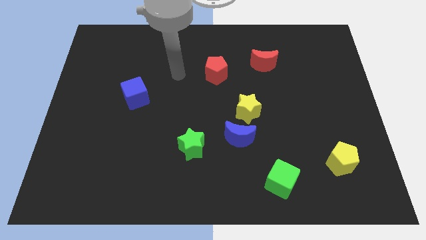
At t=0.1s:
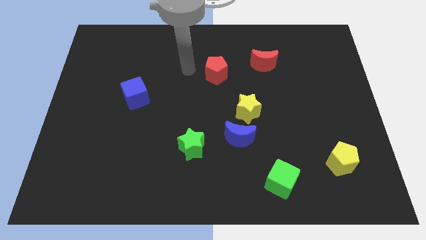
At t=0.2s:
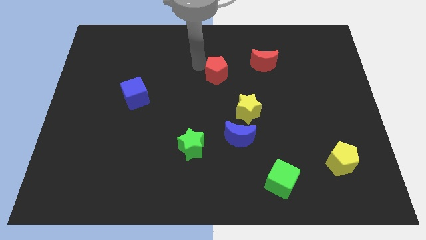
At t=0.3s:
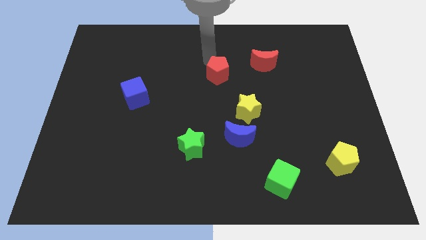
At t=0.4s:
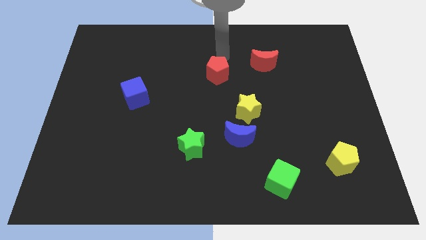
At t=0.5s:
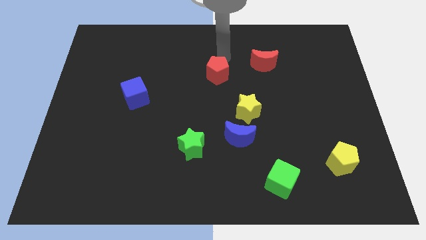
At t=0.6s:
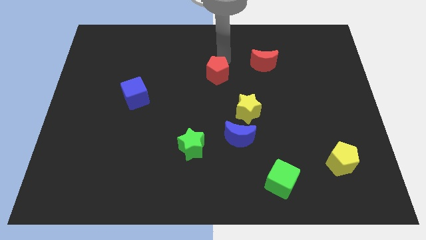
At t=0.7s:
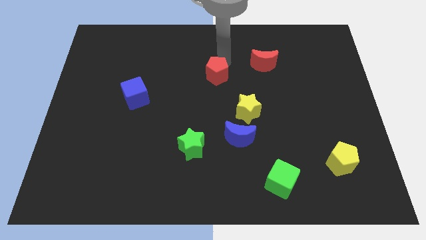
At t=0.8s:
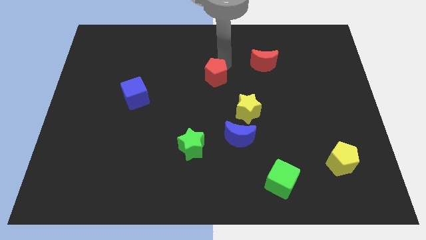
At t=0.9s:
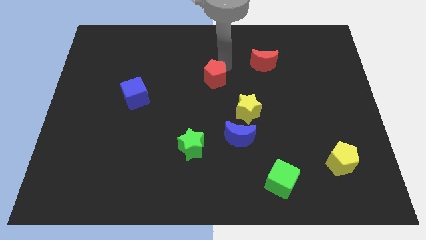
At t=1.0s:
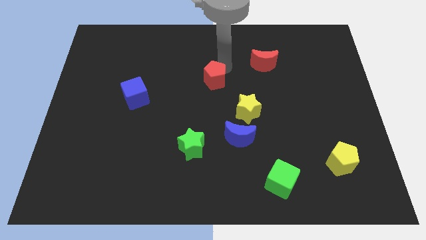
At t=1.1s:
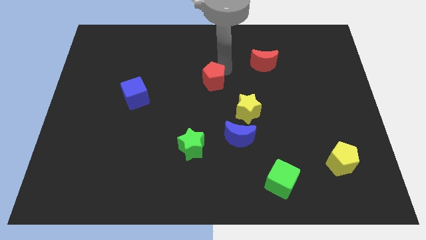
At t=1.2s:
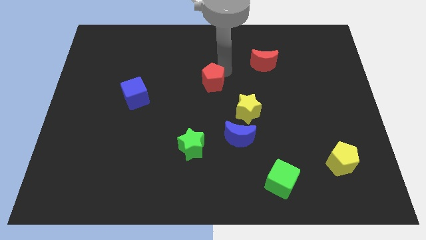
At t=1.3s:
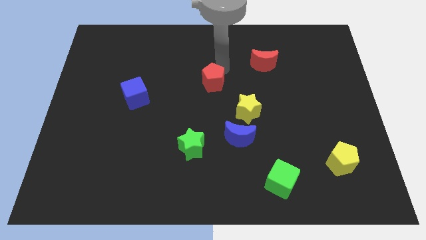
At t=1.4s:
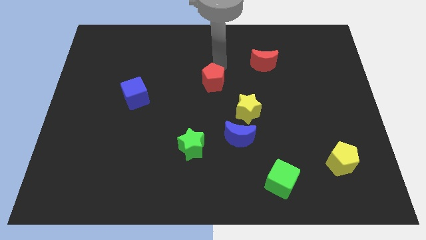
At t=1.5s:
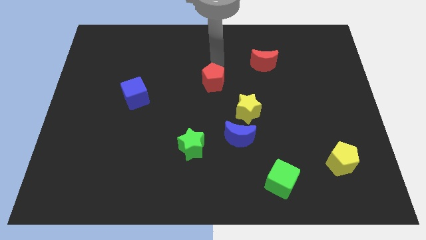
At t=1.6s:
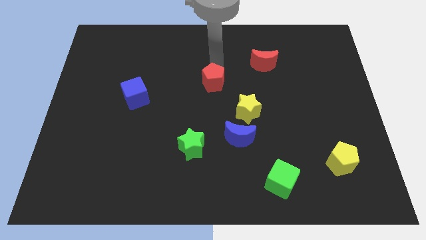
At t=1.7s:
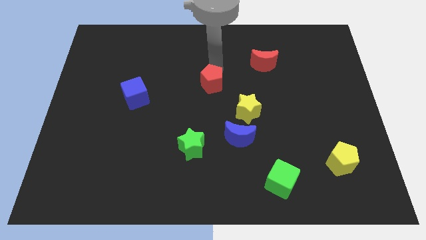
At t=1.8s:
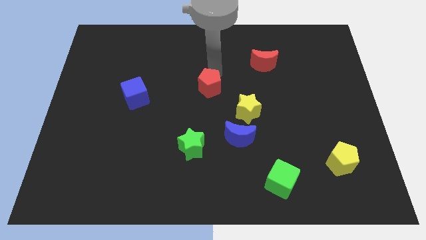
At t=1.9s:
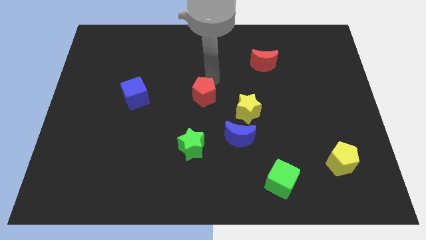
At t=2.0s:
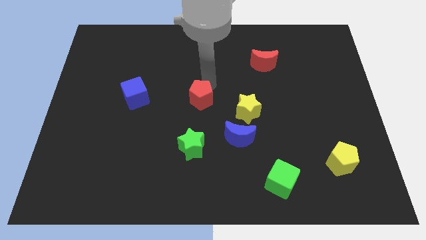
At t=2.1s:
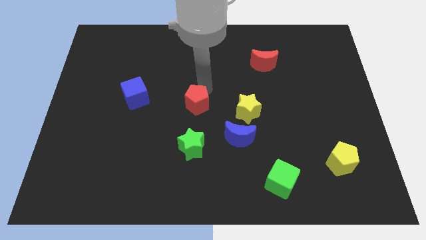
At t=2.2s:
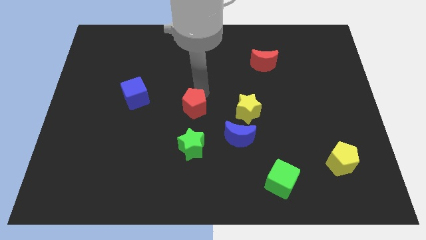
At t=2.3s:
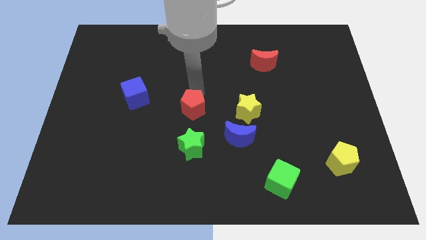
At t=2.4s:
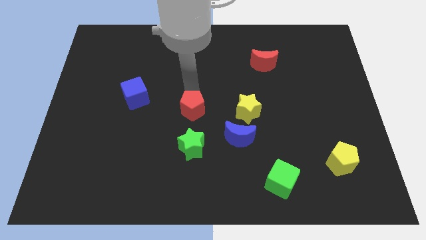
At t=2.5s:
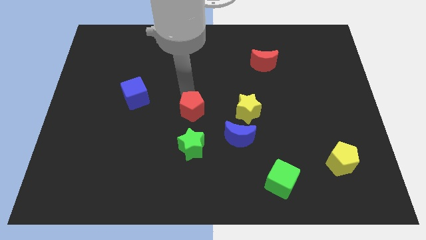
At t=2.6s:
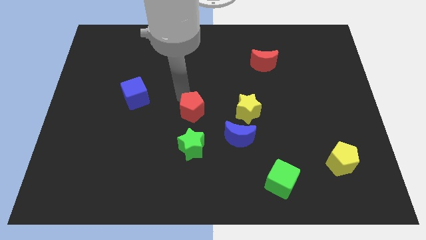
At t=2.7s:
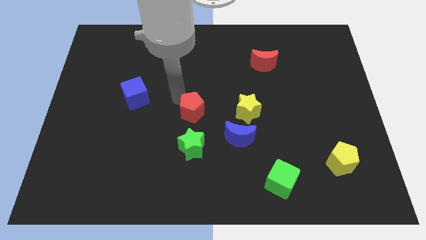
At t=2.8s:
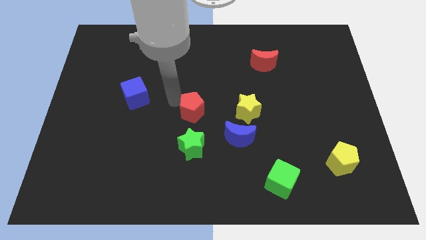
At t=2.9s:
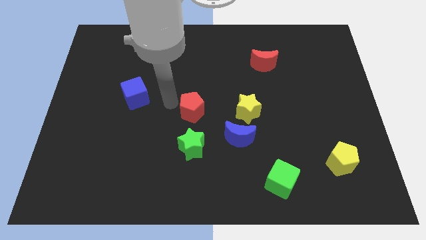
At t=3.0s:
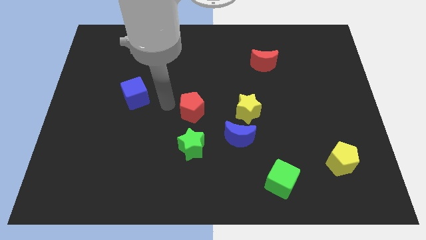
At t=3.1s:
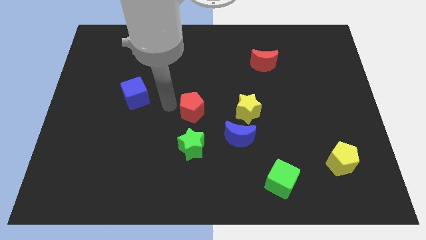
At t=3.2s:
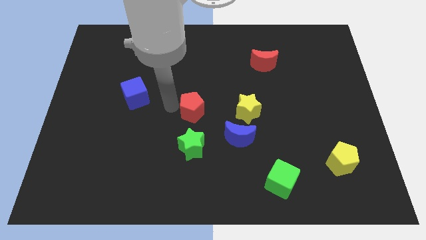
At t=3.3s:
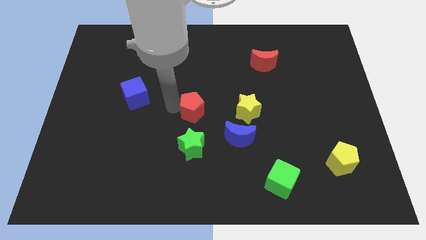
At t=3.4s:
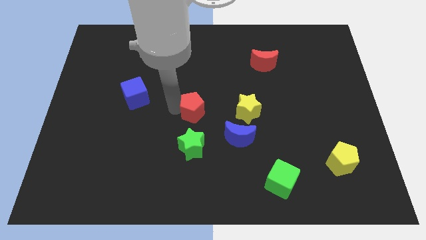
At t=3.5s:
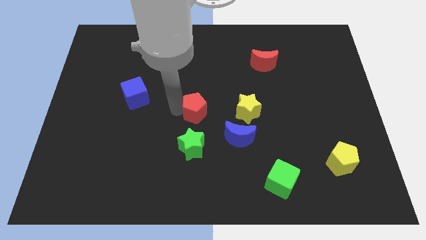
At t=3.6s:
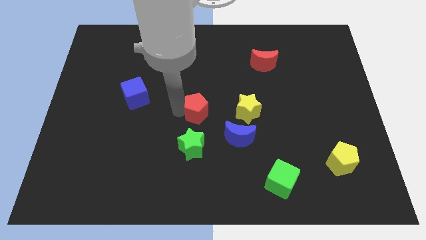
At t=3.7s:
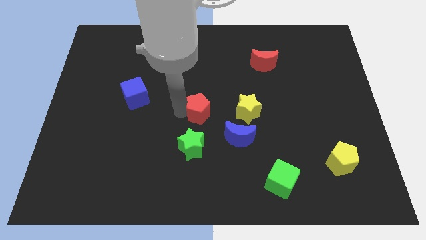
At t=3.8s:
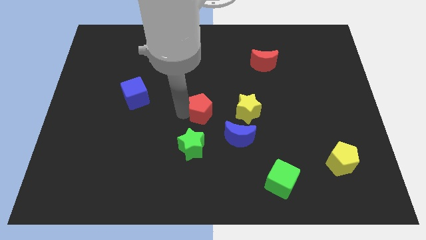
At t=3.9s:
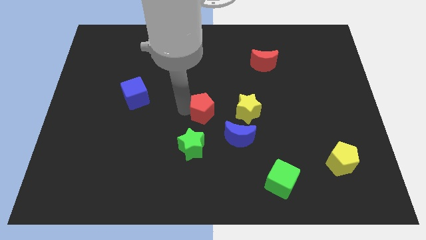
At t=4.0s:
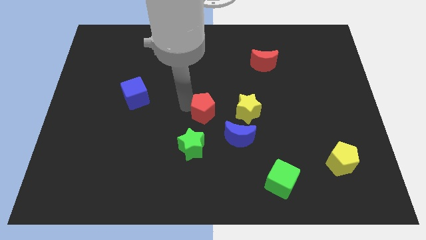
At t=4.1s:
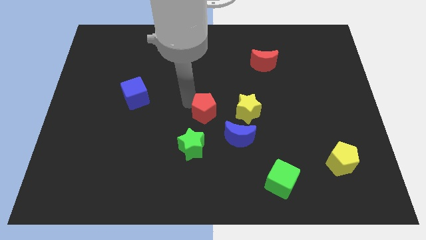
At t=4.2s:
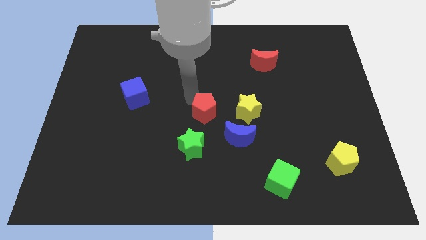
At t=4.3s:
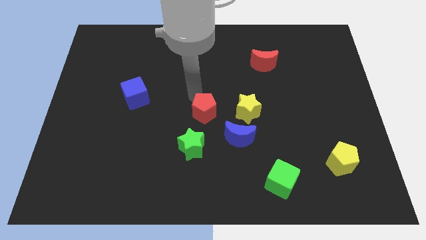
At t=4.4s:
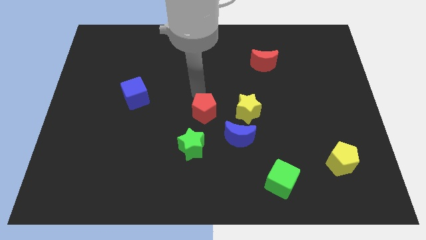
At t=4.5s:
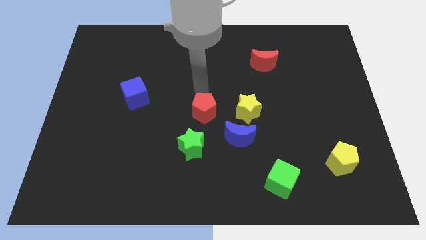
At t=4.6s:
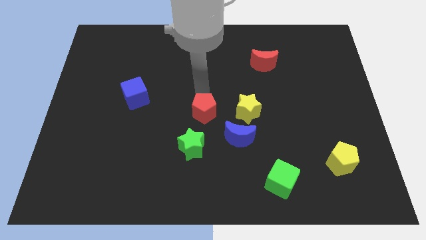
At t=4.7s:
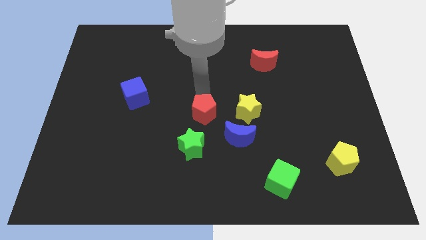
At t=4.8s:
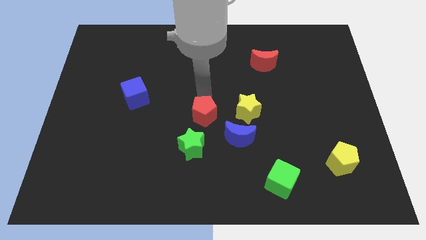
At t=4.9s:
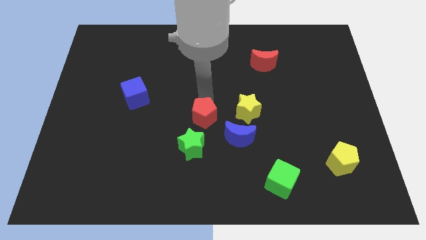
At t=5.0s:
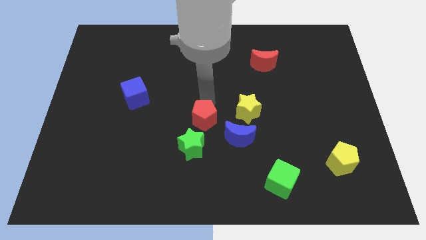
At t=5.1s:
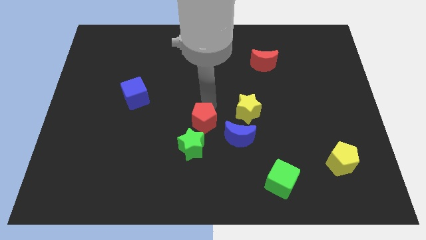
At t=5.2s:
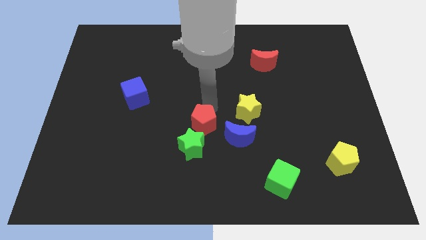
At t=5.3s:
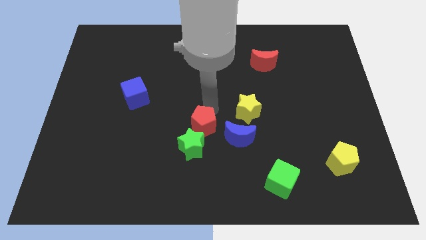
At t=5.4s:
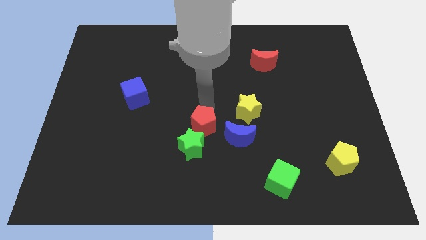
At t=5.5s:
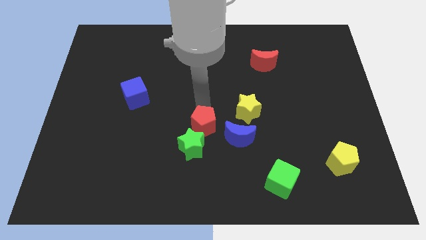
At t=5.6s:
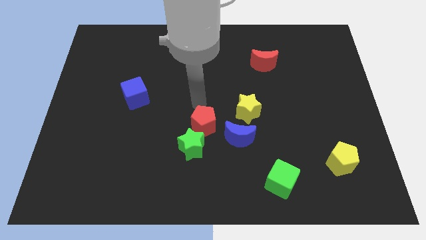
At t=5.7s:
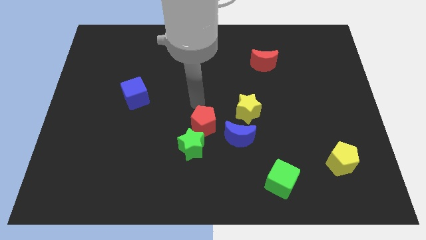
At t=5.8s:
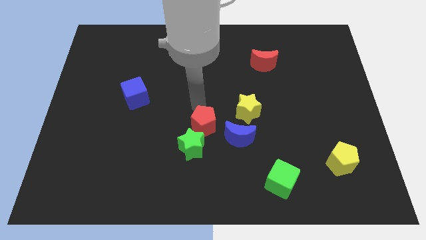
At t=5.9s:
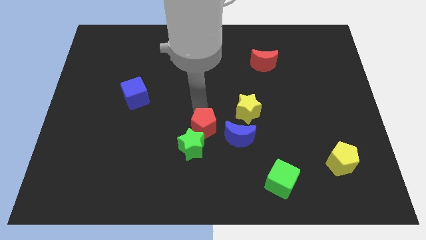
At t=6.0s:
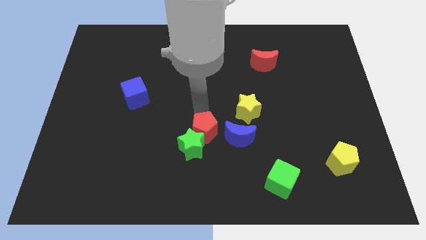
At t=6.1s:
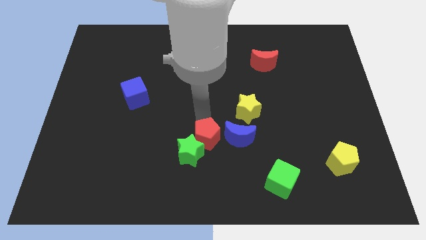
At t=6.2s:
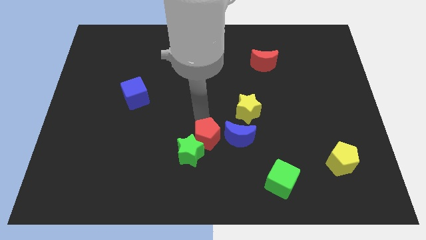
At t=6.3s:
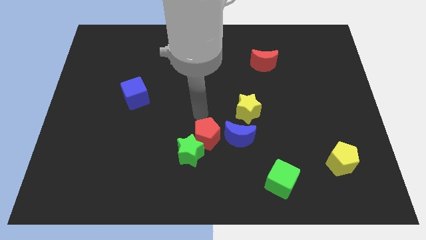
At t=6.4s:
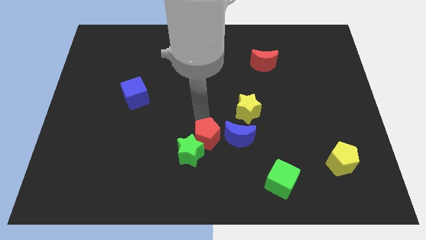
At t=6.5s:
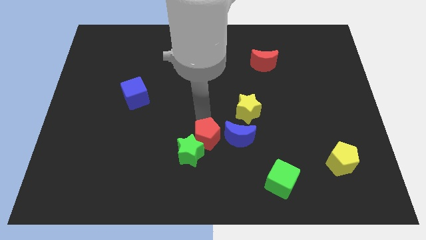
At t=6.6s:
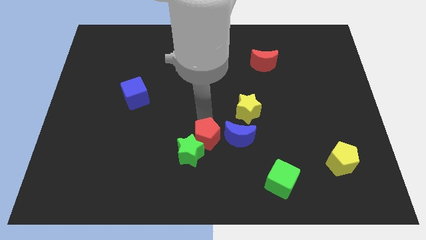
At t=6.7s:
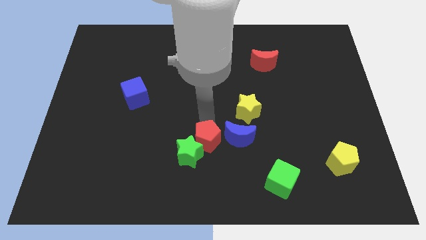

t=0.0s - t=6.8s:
slide the red pentagon diagonally down and to the left of the blue moon

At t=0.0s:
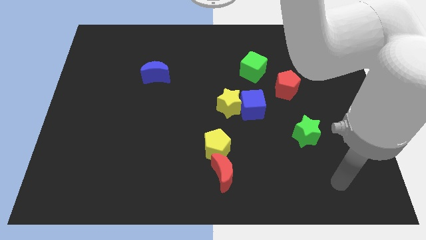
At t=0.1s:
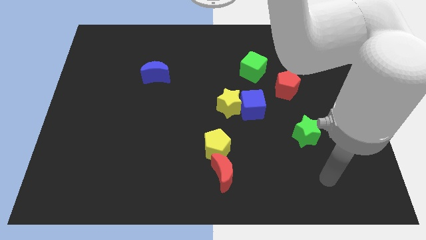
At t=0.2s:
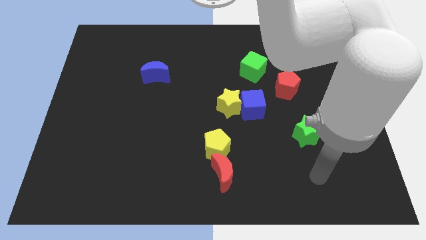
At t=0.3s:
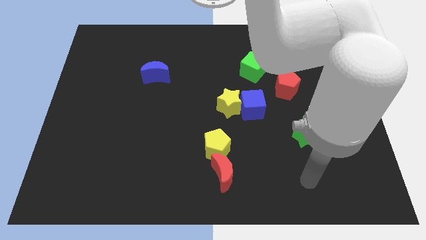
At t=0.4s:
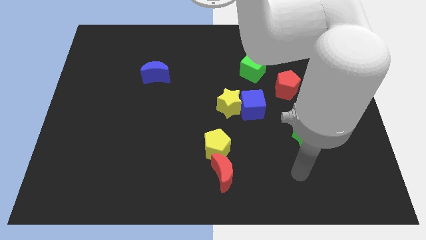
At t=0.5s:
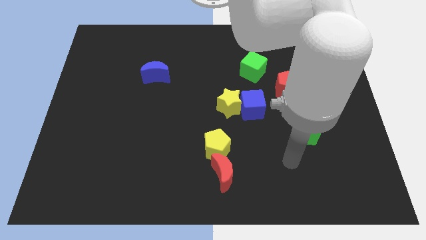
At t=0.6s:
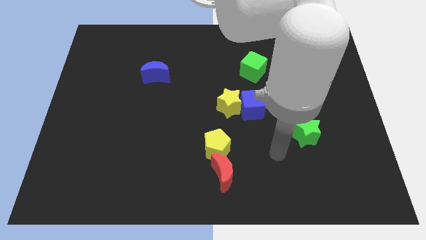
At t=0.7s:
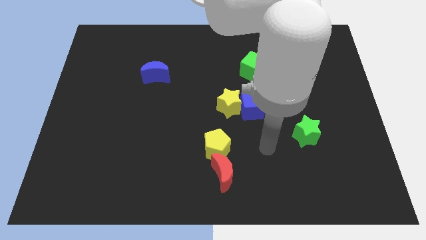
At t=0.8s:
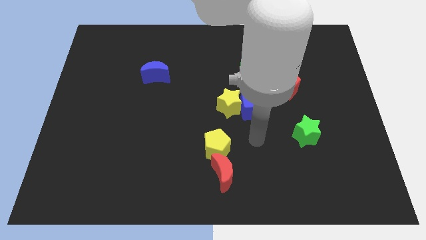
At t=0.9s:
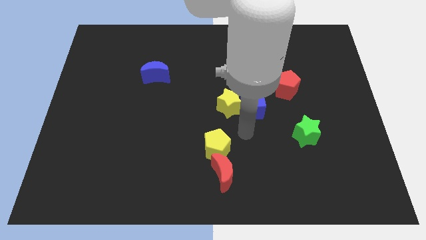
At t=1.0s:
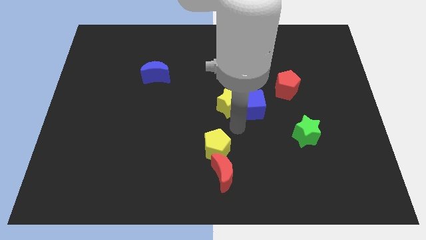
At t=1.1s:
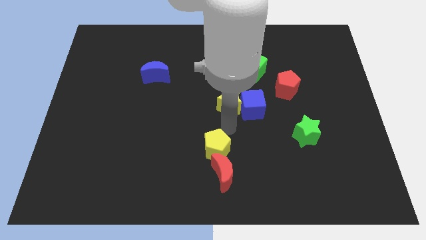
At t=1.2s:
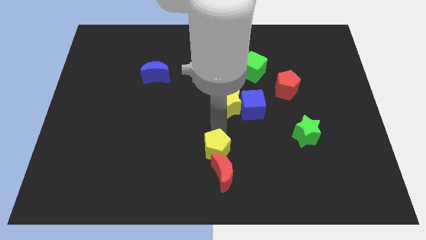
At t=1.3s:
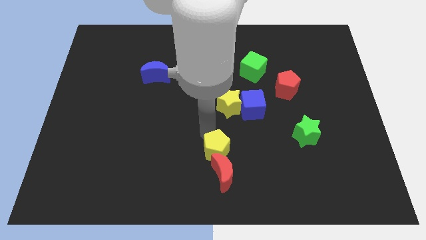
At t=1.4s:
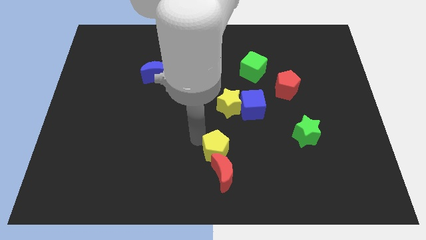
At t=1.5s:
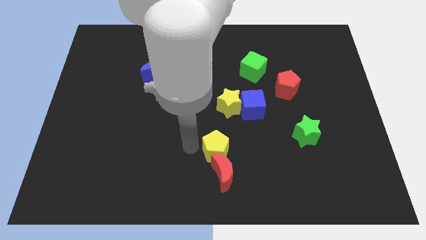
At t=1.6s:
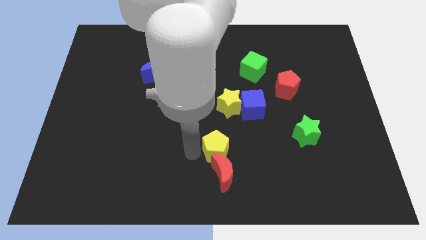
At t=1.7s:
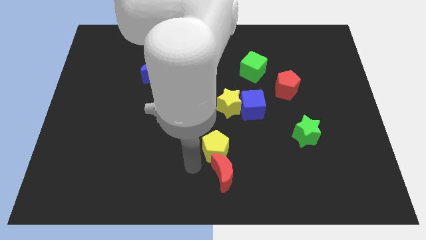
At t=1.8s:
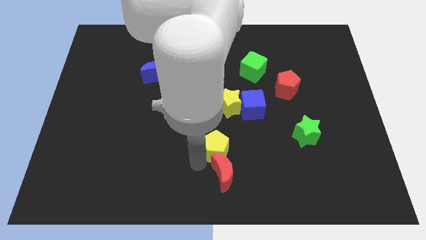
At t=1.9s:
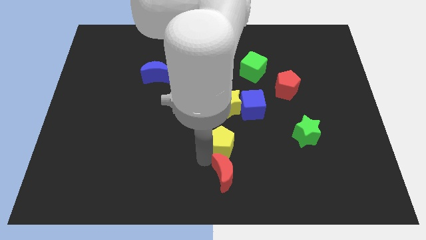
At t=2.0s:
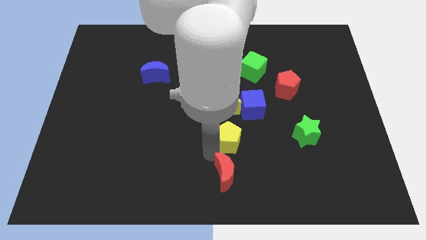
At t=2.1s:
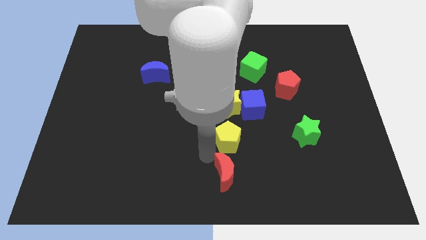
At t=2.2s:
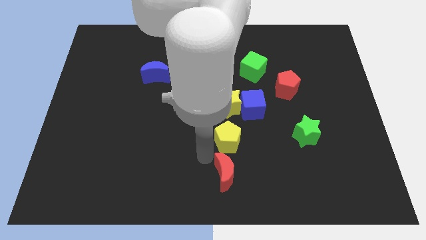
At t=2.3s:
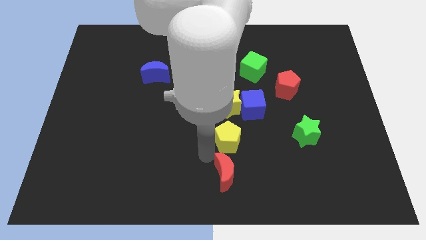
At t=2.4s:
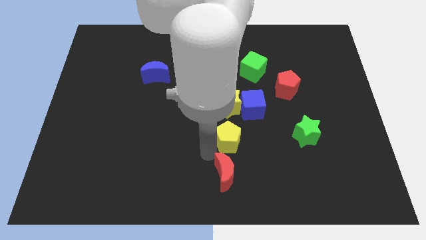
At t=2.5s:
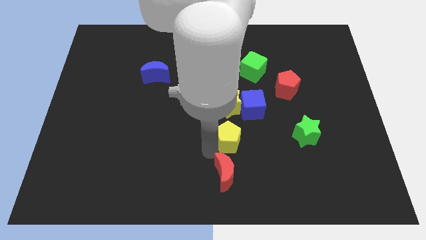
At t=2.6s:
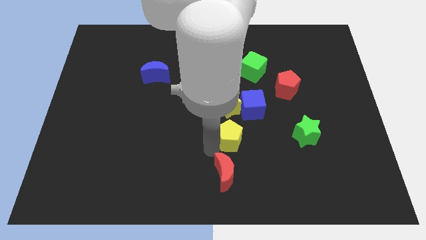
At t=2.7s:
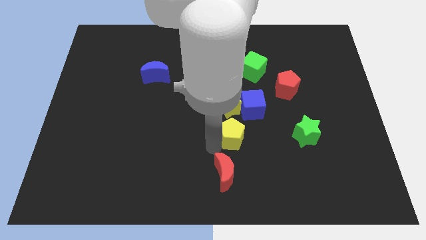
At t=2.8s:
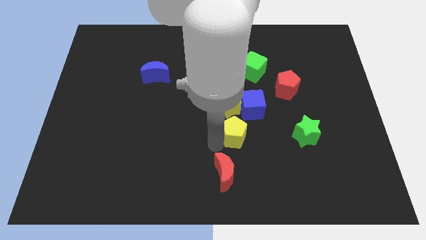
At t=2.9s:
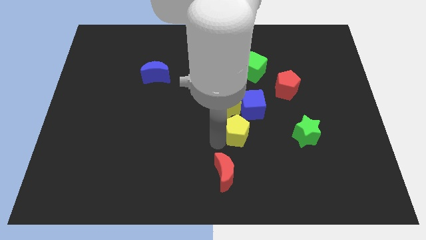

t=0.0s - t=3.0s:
slide the yellow pentagon diagonally down and to the right of the yellow star